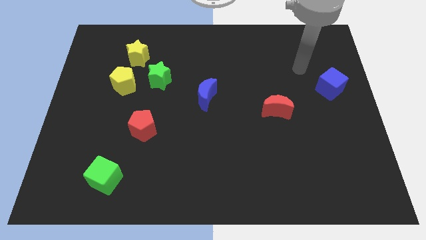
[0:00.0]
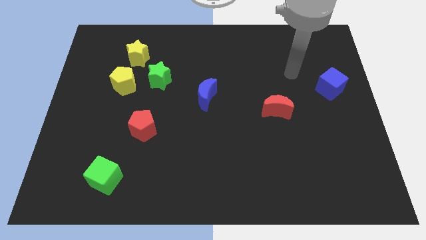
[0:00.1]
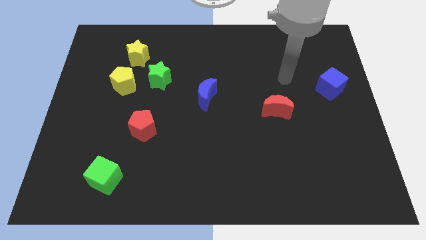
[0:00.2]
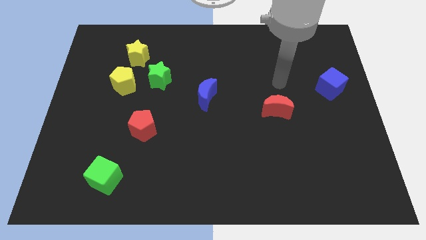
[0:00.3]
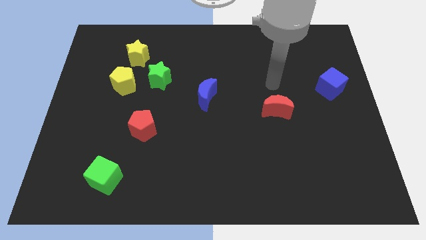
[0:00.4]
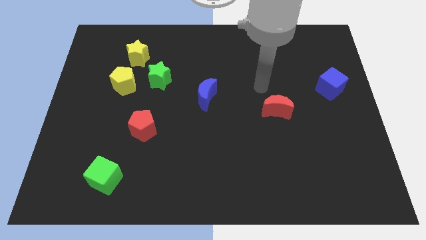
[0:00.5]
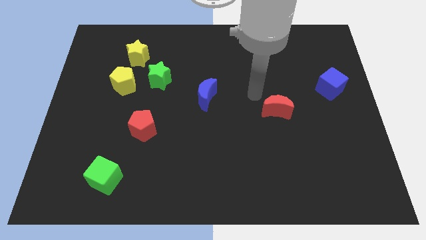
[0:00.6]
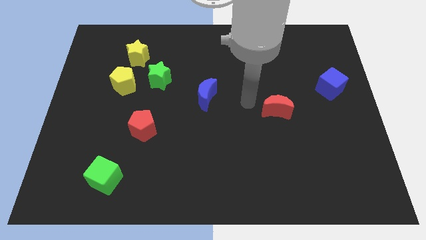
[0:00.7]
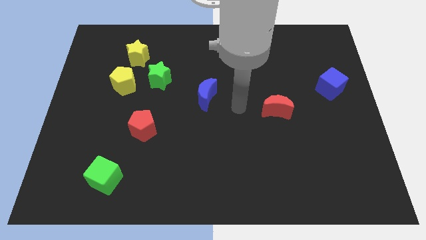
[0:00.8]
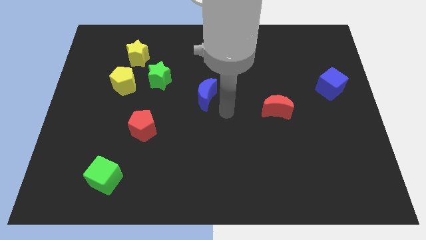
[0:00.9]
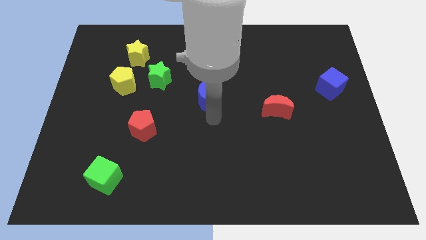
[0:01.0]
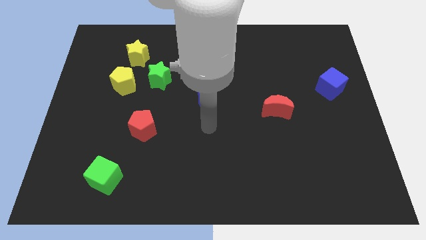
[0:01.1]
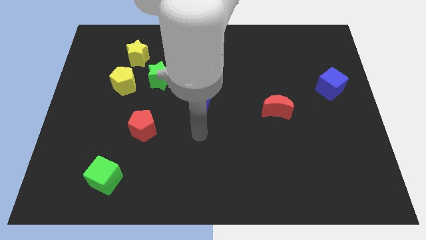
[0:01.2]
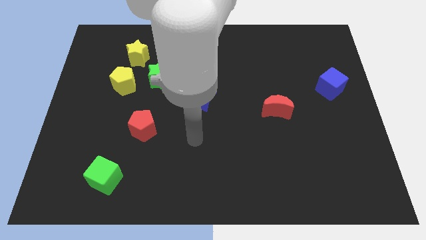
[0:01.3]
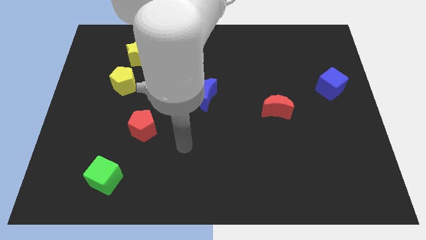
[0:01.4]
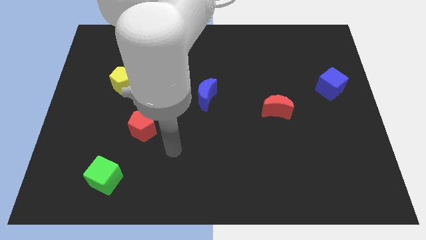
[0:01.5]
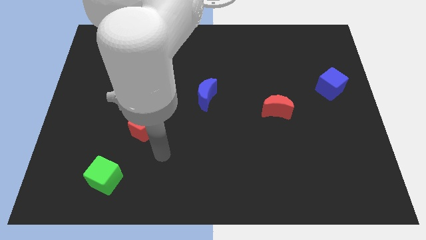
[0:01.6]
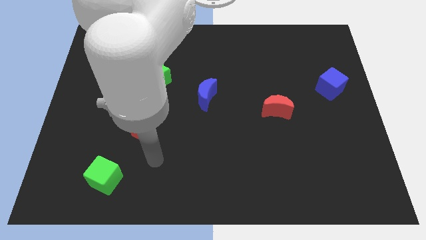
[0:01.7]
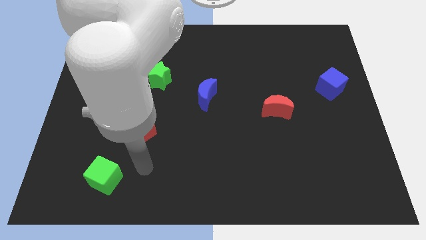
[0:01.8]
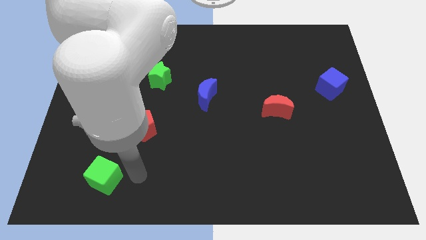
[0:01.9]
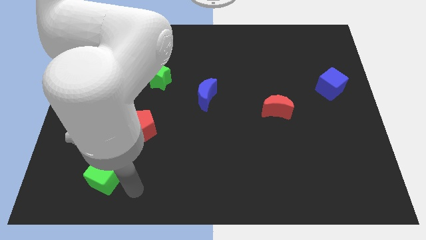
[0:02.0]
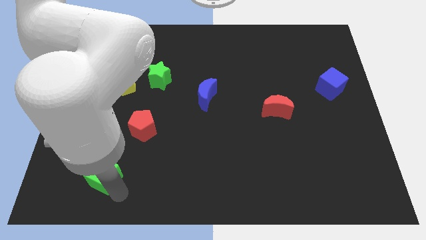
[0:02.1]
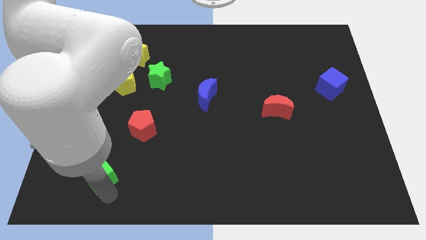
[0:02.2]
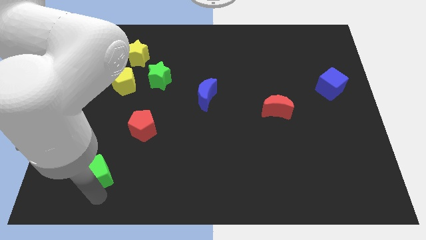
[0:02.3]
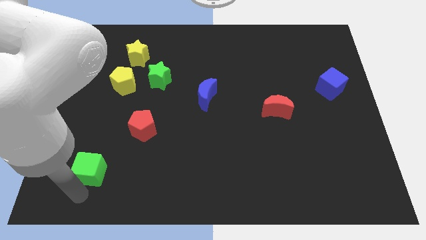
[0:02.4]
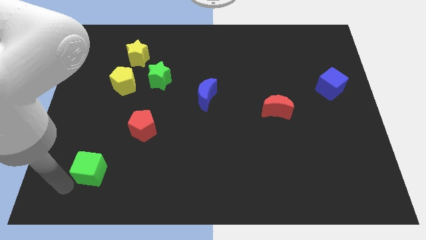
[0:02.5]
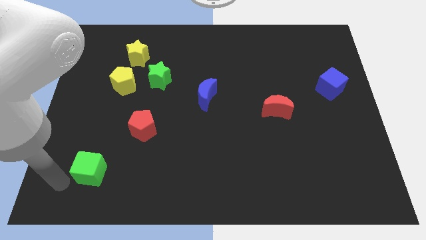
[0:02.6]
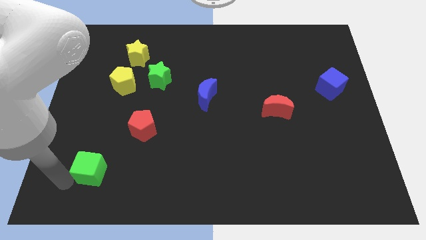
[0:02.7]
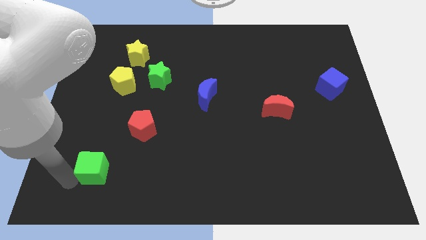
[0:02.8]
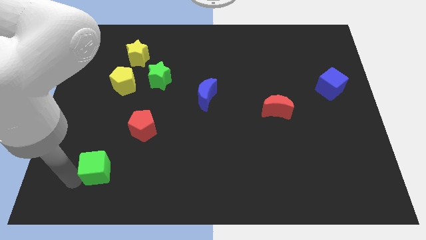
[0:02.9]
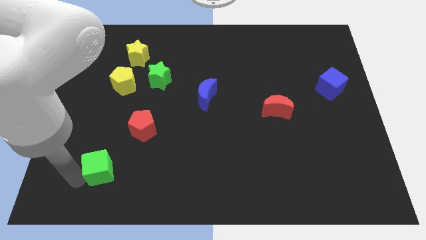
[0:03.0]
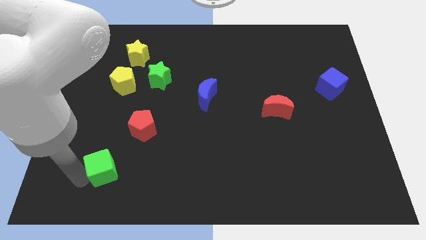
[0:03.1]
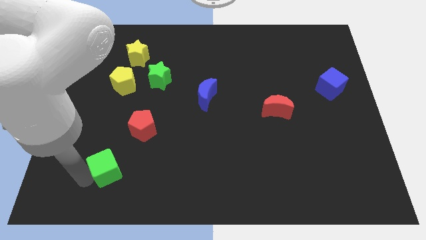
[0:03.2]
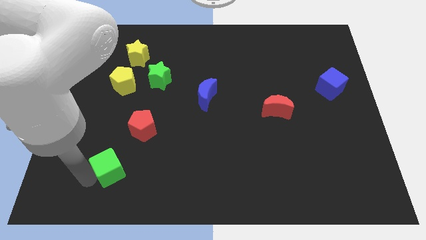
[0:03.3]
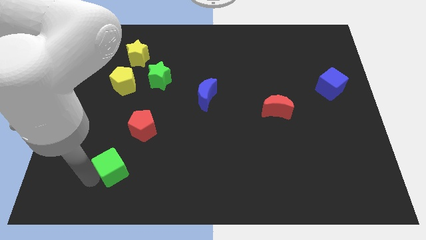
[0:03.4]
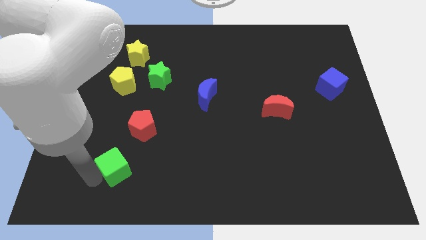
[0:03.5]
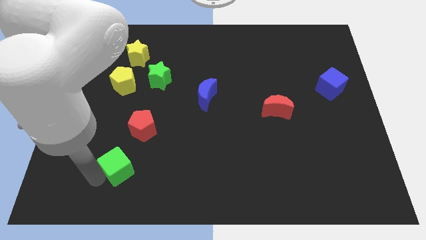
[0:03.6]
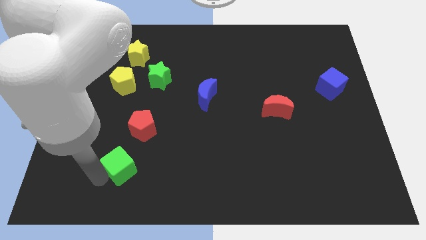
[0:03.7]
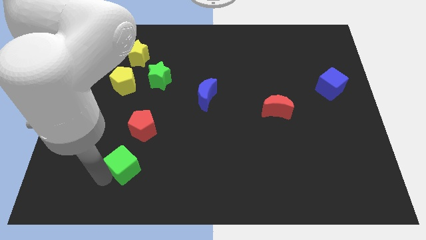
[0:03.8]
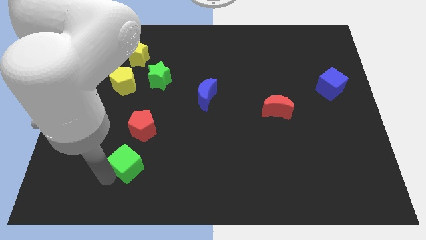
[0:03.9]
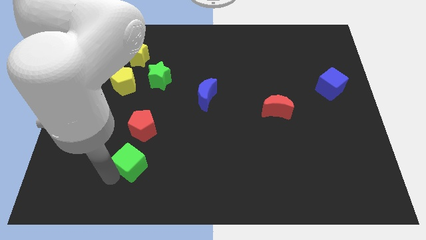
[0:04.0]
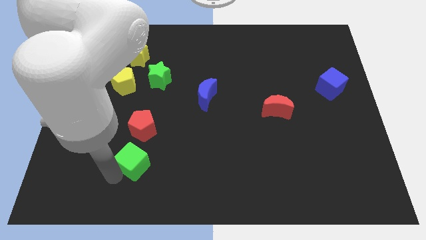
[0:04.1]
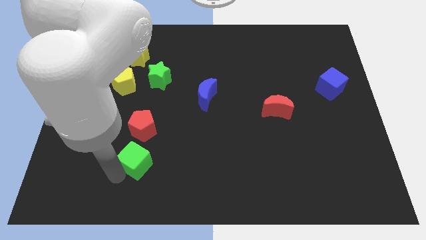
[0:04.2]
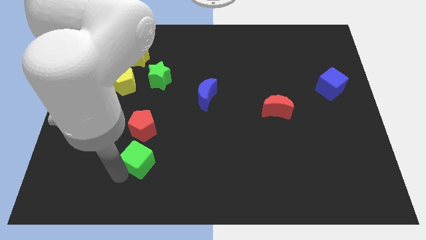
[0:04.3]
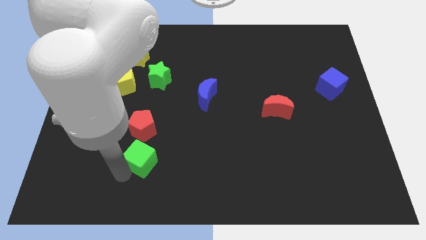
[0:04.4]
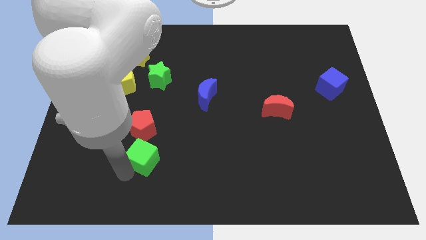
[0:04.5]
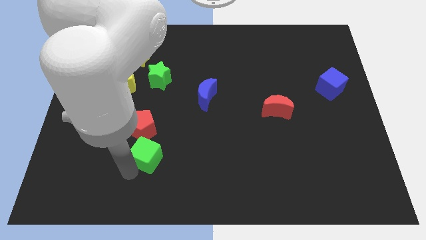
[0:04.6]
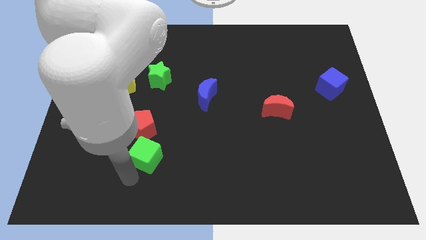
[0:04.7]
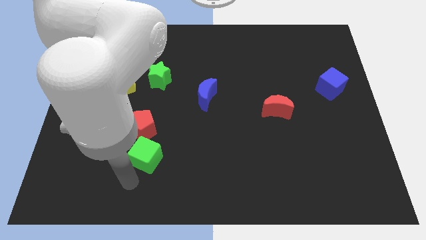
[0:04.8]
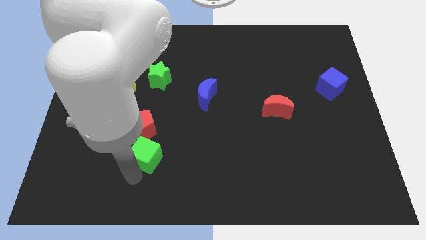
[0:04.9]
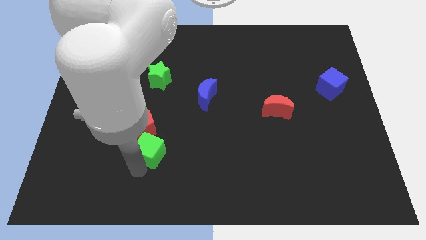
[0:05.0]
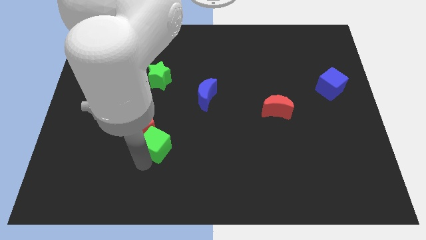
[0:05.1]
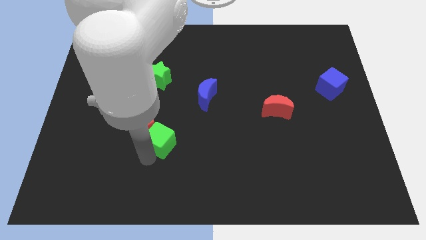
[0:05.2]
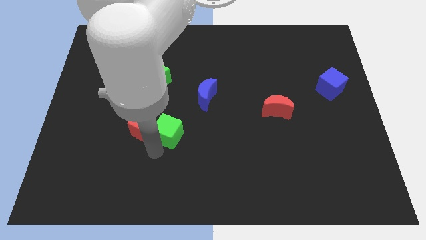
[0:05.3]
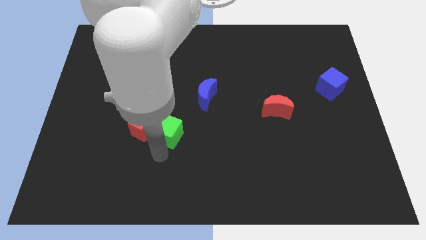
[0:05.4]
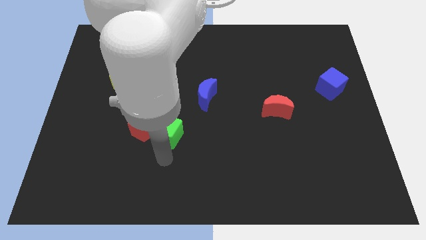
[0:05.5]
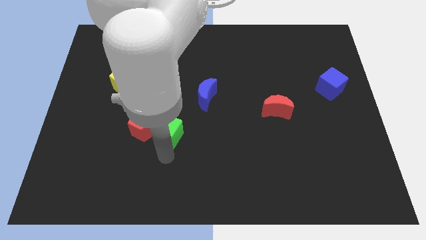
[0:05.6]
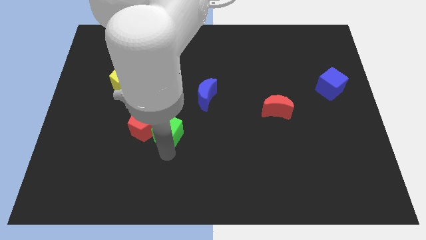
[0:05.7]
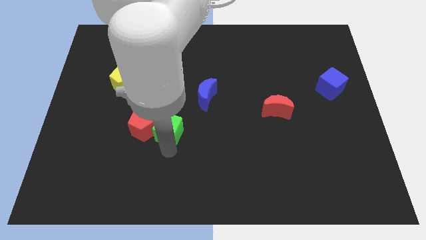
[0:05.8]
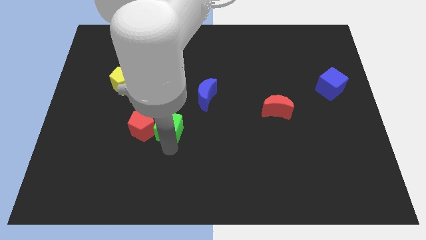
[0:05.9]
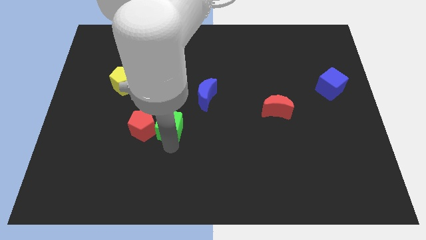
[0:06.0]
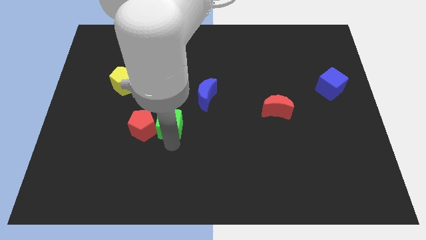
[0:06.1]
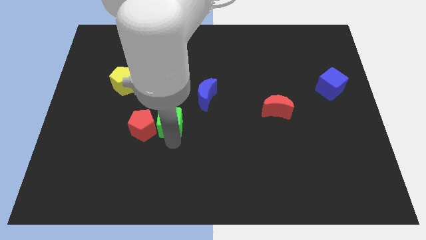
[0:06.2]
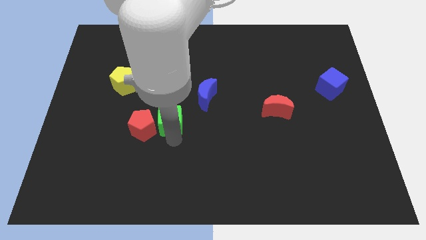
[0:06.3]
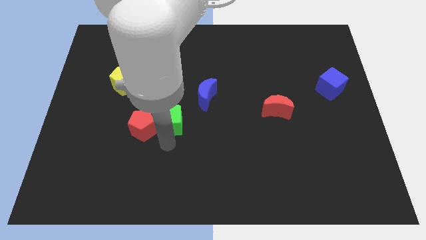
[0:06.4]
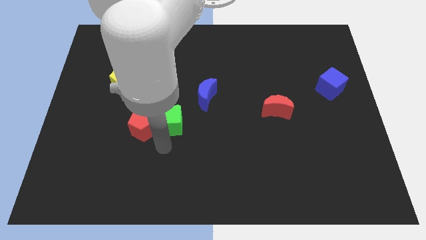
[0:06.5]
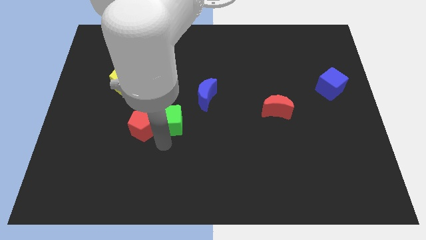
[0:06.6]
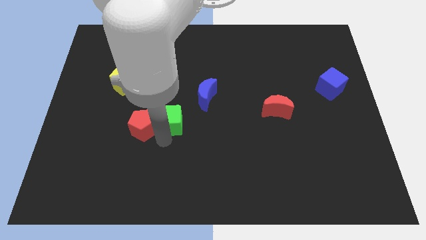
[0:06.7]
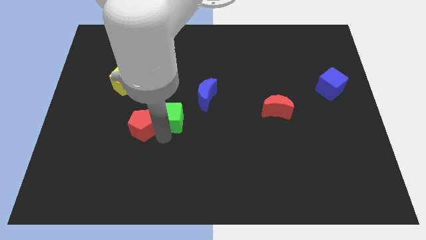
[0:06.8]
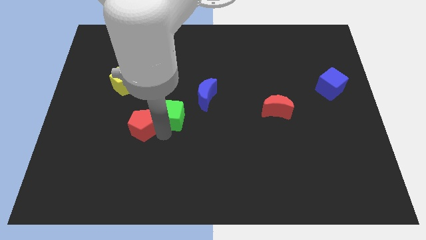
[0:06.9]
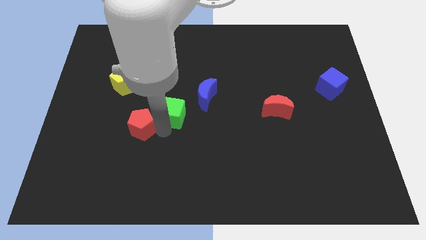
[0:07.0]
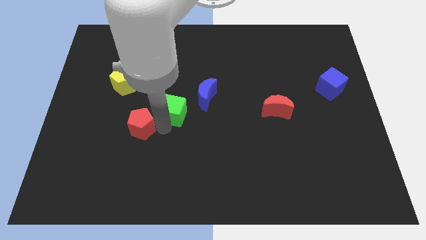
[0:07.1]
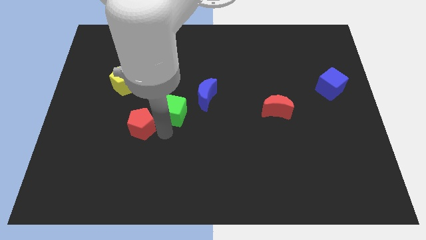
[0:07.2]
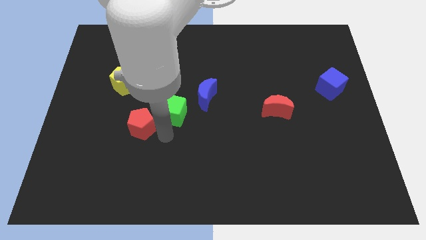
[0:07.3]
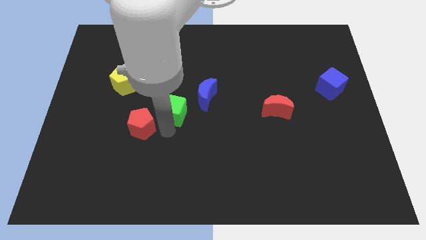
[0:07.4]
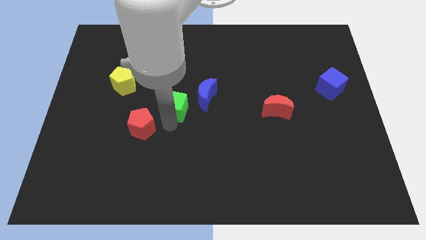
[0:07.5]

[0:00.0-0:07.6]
put the green cube to the bottom right of the green star

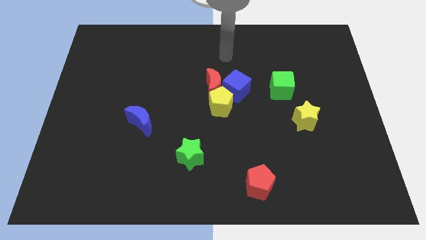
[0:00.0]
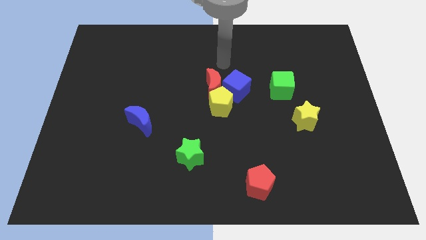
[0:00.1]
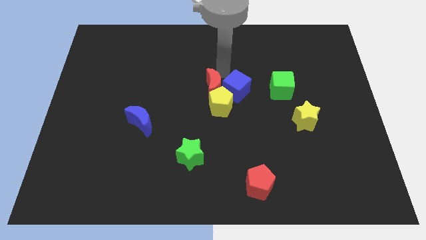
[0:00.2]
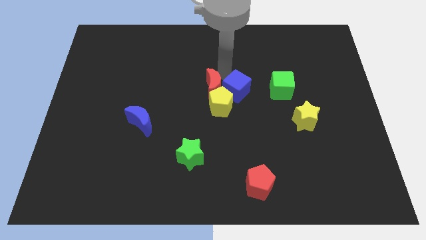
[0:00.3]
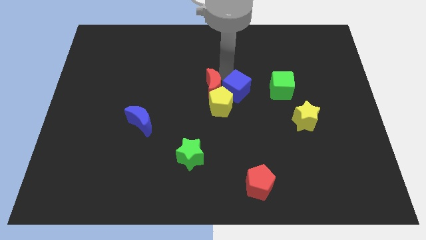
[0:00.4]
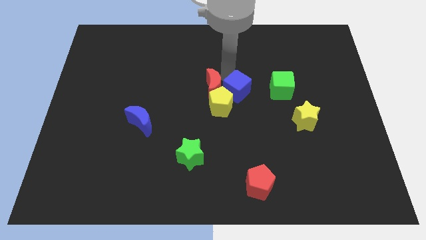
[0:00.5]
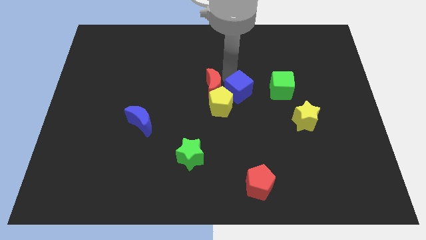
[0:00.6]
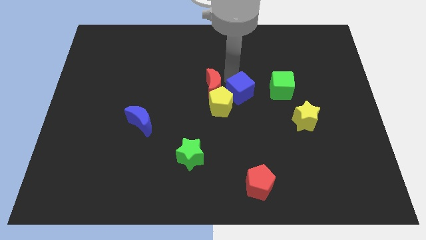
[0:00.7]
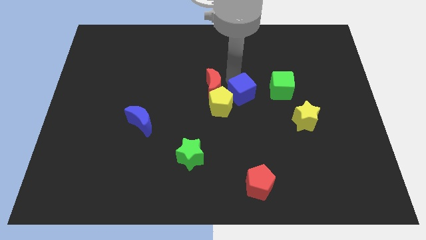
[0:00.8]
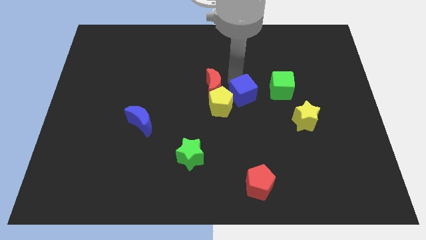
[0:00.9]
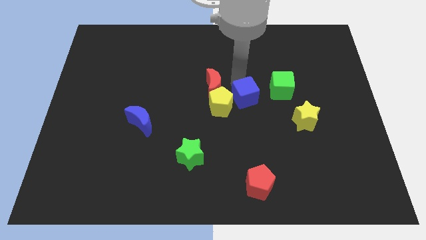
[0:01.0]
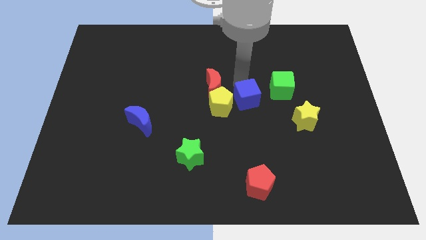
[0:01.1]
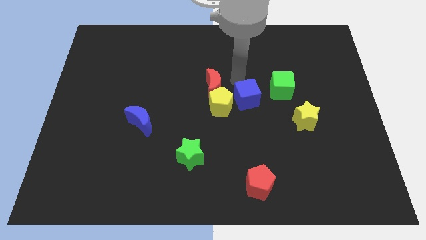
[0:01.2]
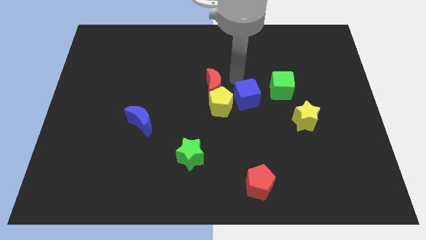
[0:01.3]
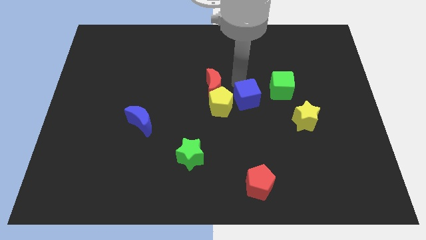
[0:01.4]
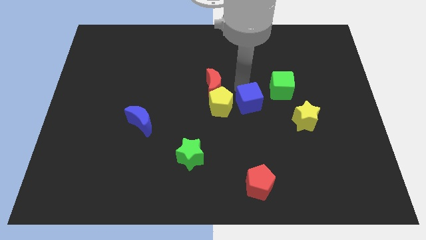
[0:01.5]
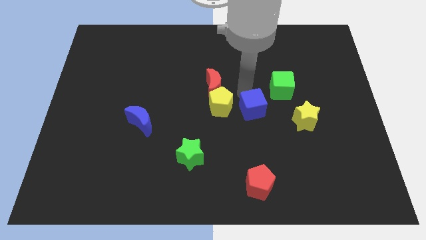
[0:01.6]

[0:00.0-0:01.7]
move the blue cube to the left of the yellow star
